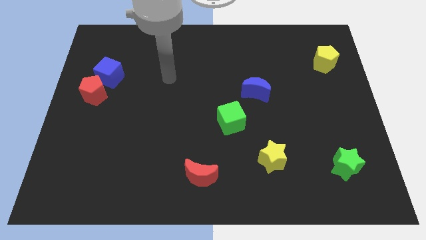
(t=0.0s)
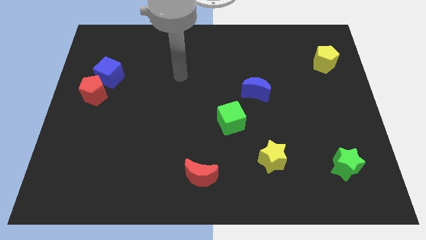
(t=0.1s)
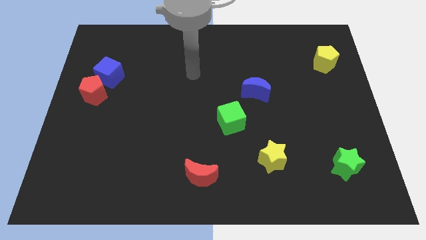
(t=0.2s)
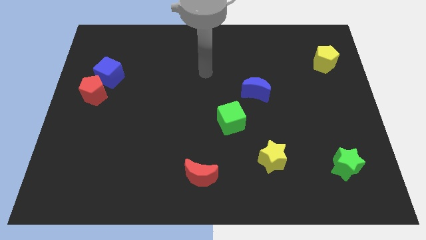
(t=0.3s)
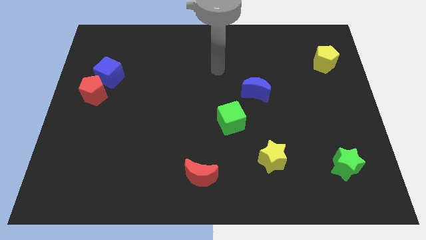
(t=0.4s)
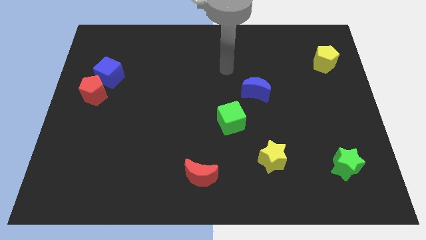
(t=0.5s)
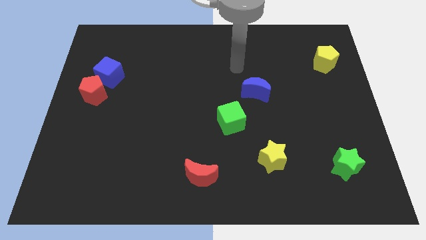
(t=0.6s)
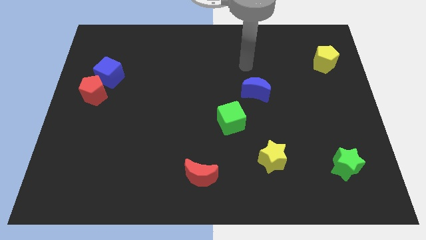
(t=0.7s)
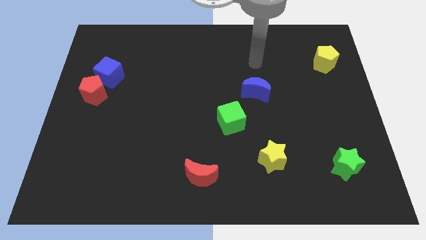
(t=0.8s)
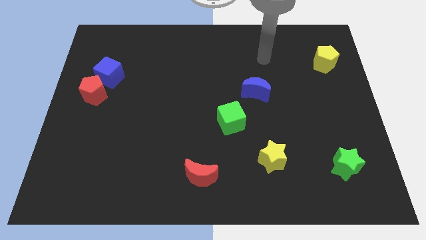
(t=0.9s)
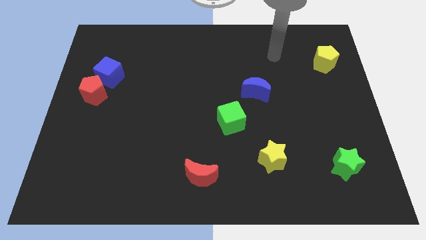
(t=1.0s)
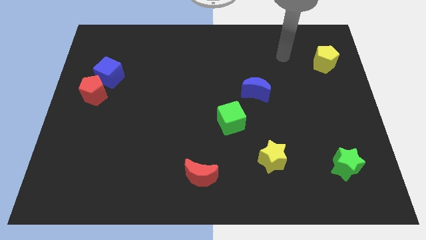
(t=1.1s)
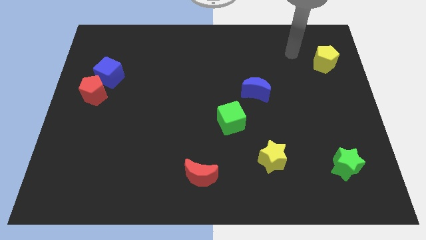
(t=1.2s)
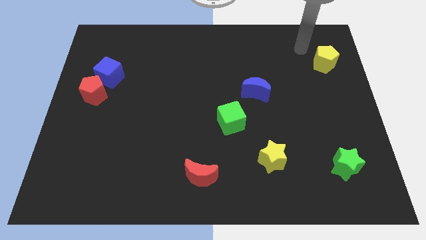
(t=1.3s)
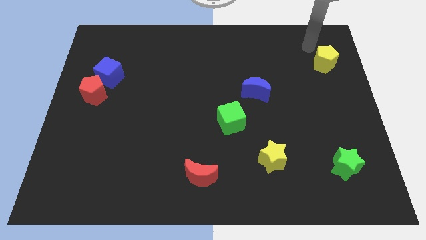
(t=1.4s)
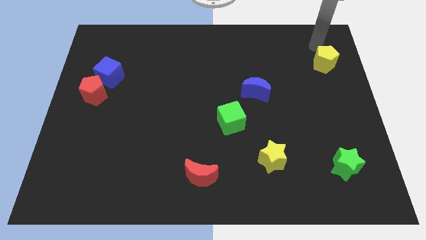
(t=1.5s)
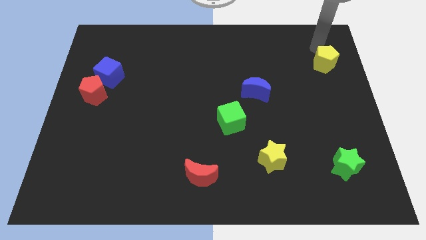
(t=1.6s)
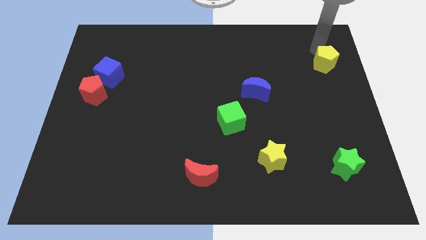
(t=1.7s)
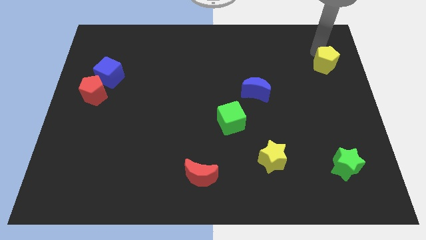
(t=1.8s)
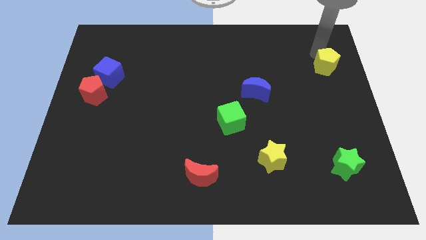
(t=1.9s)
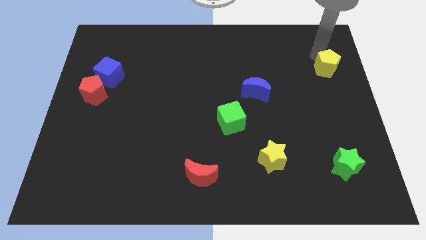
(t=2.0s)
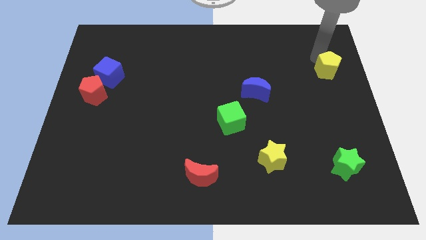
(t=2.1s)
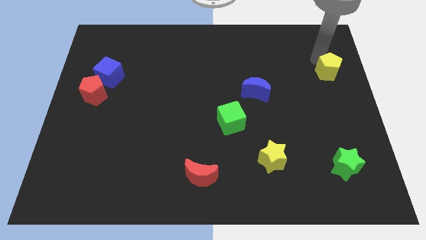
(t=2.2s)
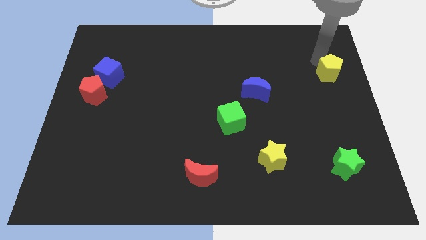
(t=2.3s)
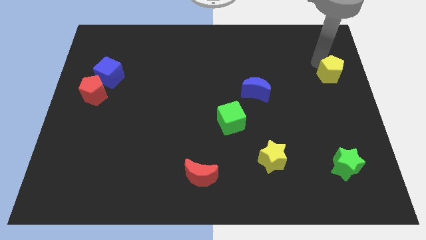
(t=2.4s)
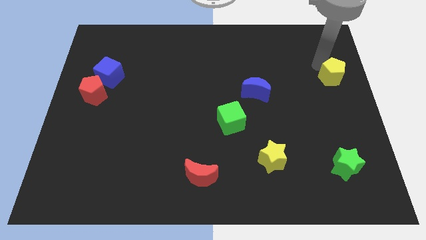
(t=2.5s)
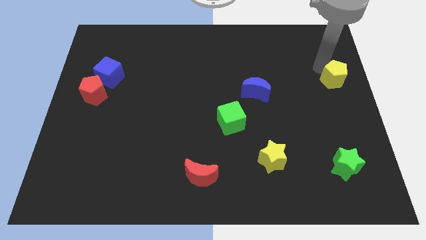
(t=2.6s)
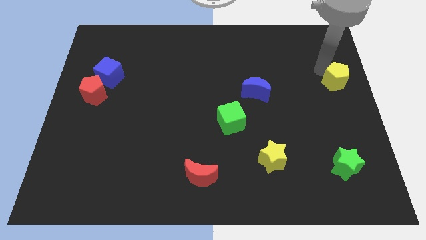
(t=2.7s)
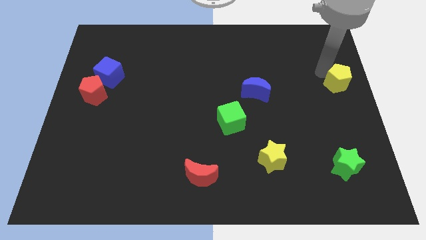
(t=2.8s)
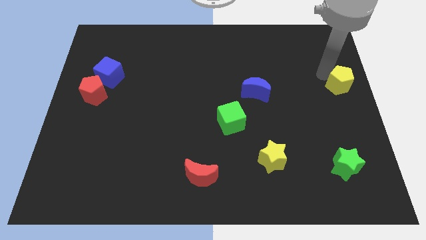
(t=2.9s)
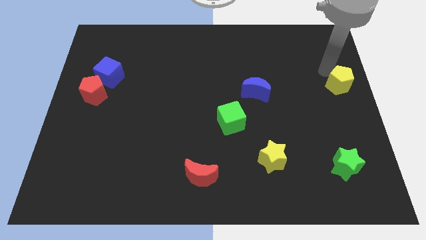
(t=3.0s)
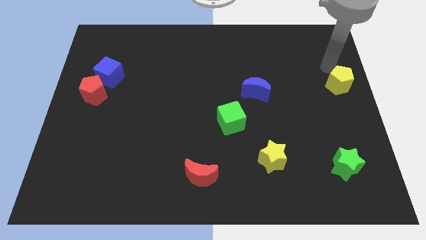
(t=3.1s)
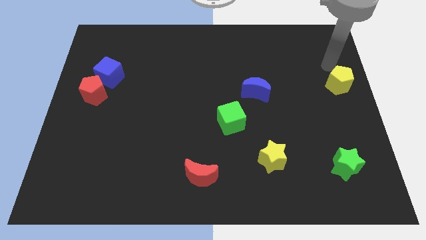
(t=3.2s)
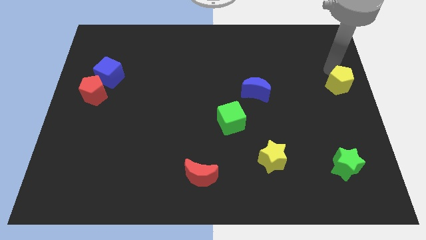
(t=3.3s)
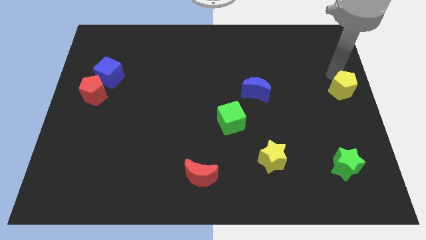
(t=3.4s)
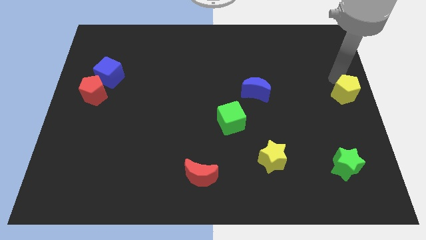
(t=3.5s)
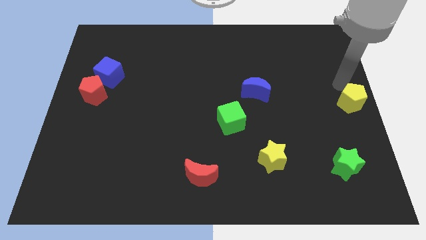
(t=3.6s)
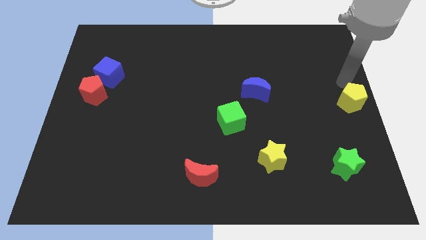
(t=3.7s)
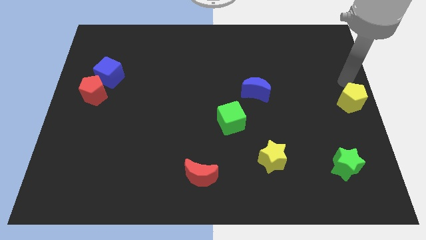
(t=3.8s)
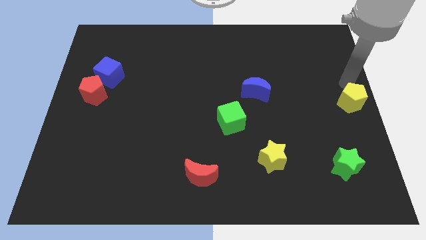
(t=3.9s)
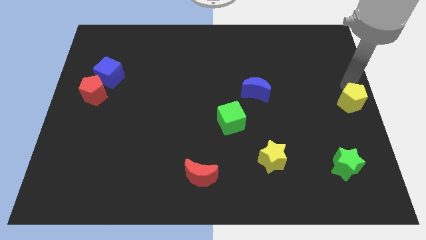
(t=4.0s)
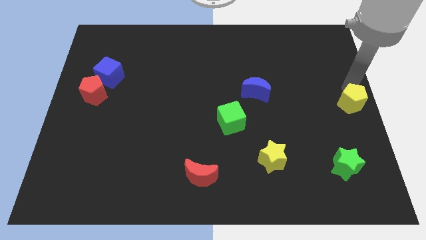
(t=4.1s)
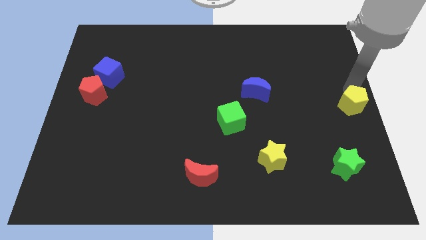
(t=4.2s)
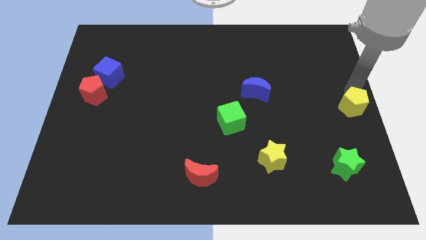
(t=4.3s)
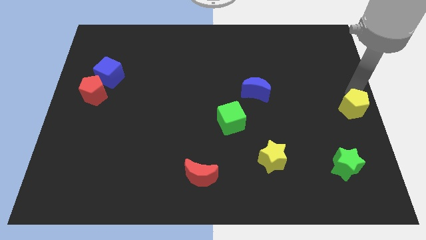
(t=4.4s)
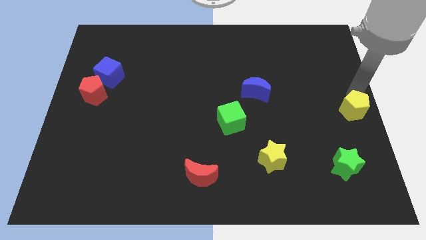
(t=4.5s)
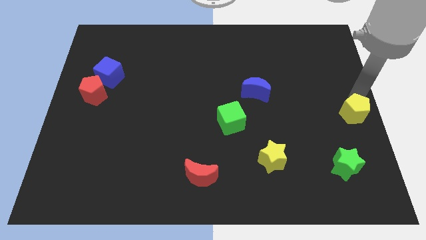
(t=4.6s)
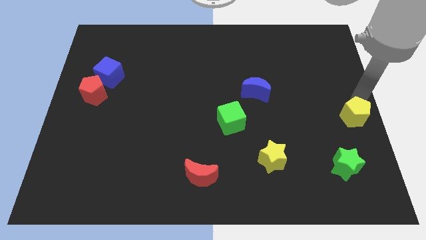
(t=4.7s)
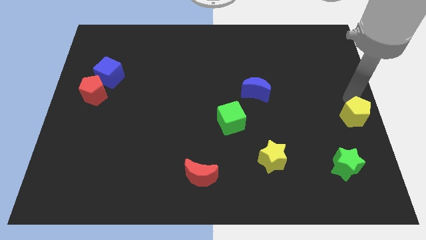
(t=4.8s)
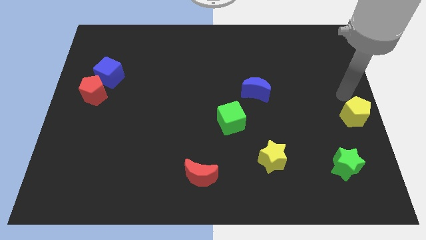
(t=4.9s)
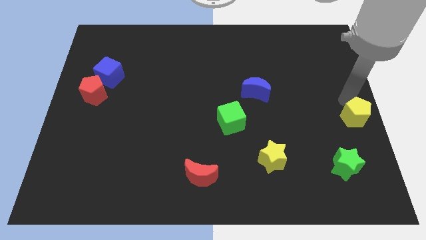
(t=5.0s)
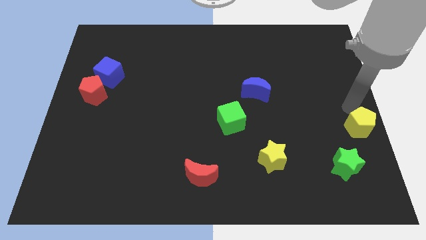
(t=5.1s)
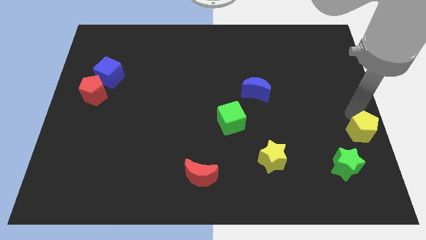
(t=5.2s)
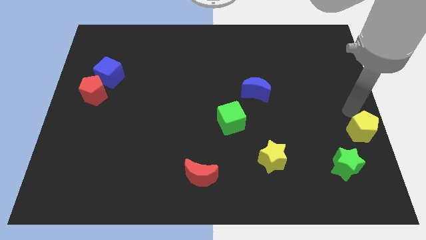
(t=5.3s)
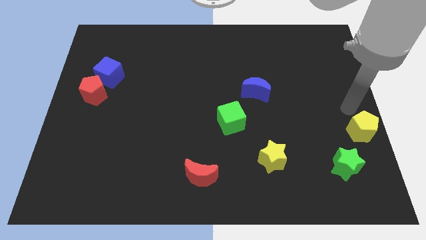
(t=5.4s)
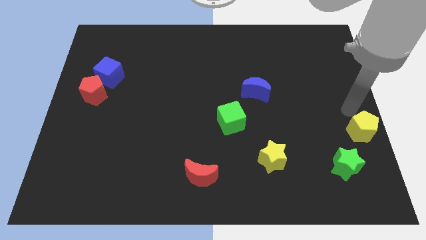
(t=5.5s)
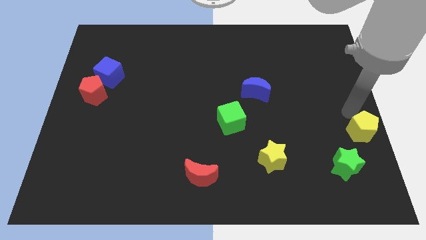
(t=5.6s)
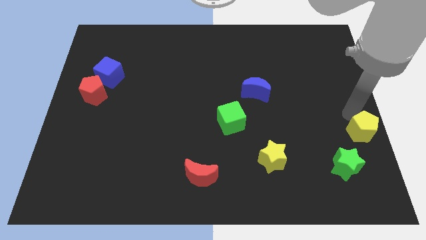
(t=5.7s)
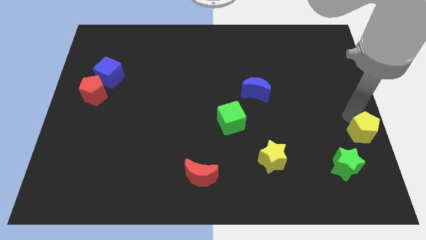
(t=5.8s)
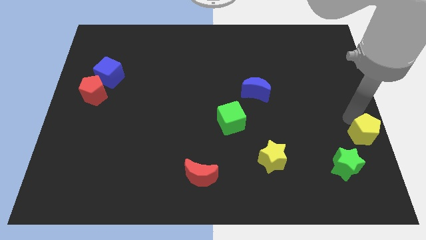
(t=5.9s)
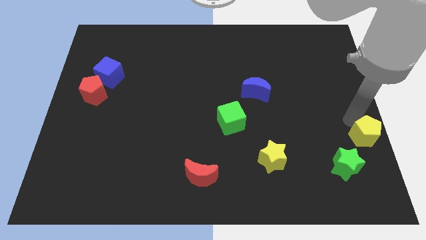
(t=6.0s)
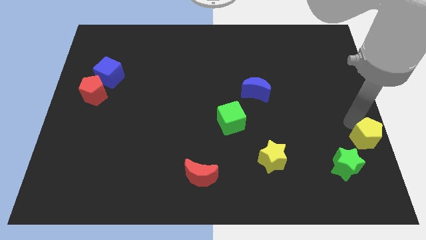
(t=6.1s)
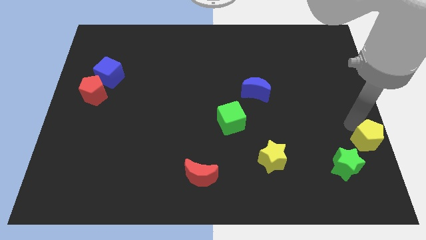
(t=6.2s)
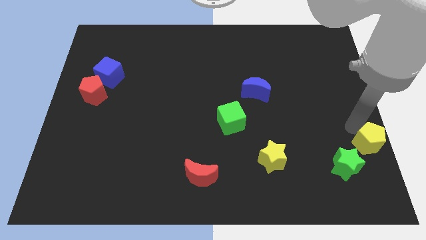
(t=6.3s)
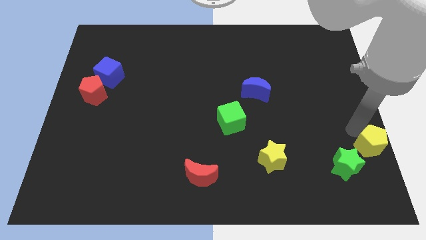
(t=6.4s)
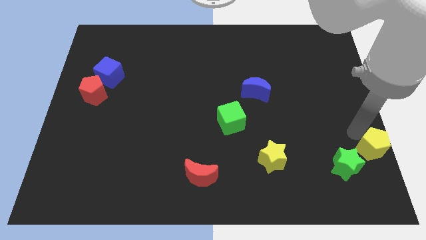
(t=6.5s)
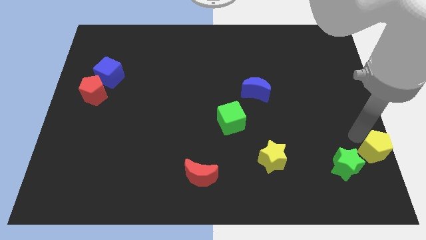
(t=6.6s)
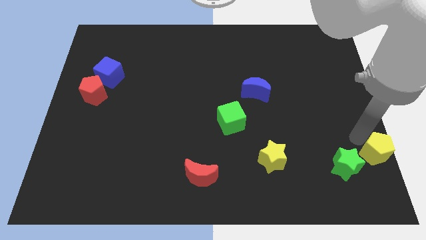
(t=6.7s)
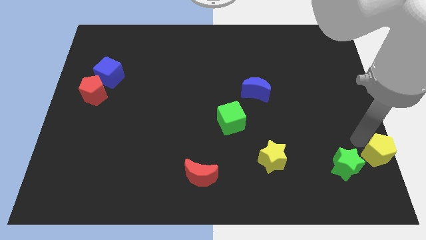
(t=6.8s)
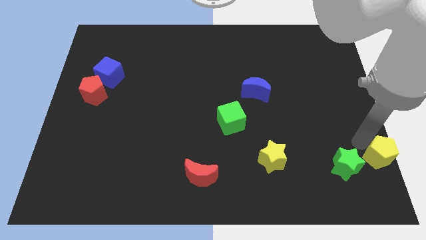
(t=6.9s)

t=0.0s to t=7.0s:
move the yellow pentagon to the bottom right corner

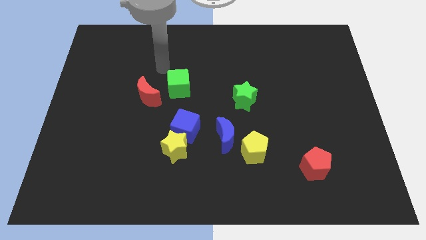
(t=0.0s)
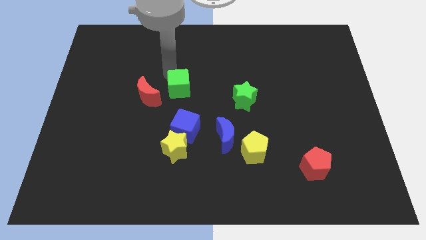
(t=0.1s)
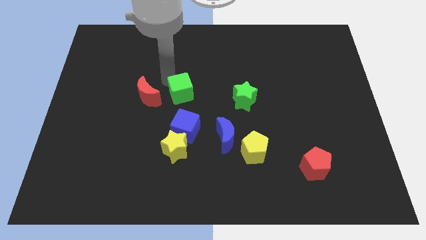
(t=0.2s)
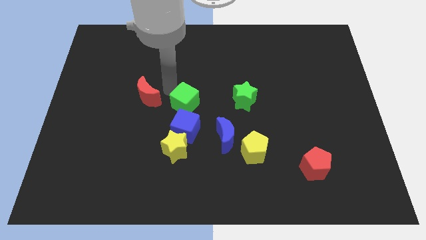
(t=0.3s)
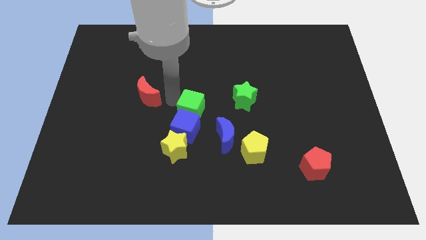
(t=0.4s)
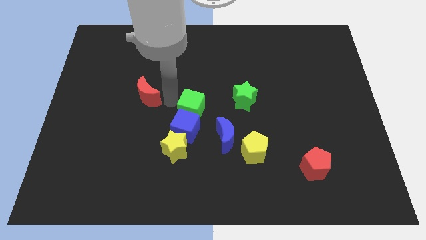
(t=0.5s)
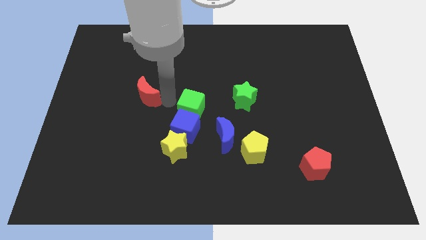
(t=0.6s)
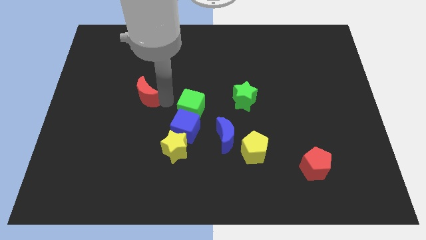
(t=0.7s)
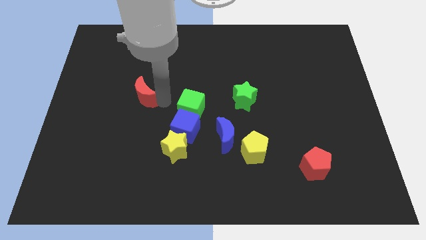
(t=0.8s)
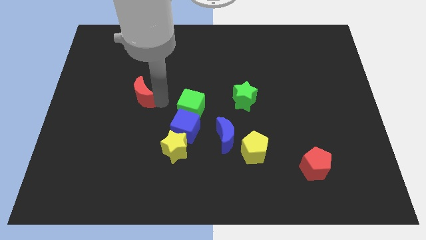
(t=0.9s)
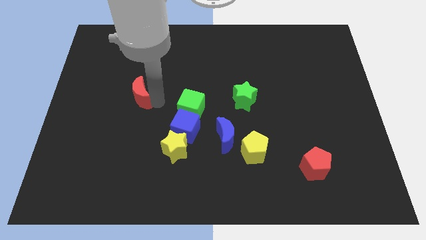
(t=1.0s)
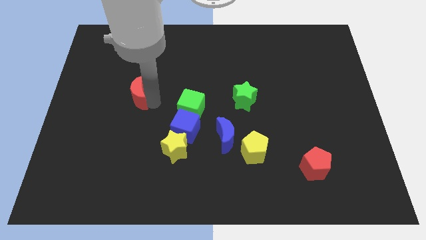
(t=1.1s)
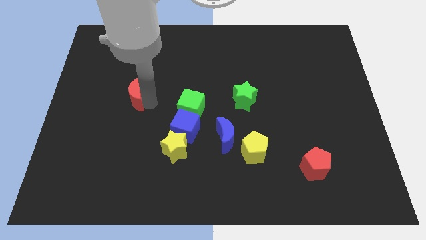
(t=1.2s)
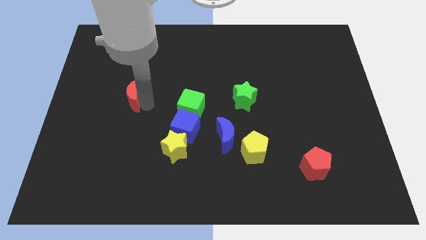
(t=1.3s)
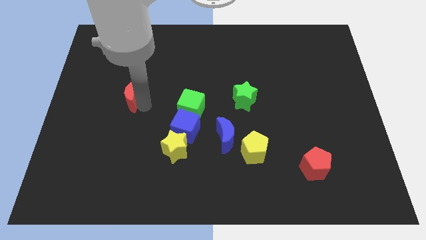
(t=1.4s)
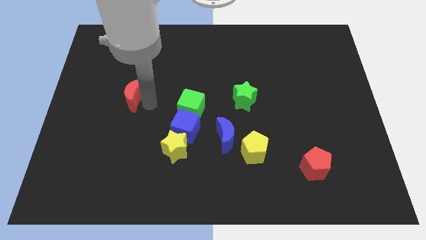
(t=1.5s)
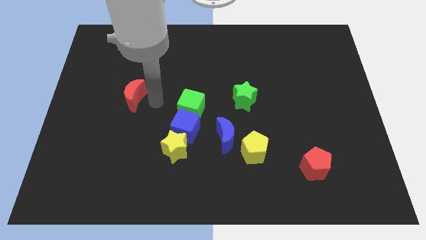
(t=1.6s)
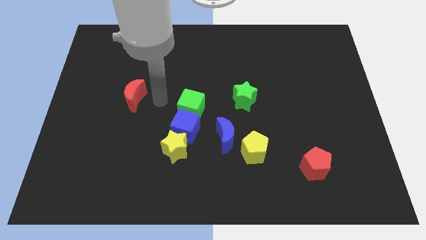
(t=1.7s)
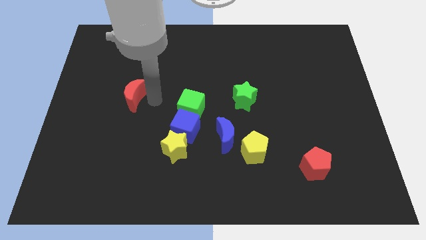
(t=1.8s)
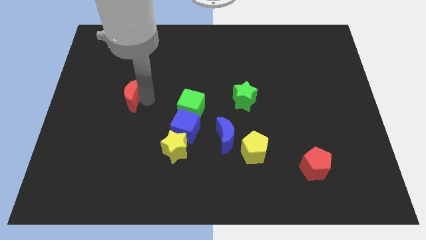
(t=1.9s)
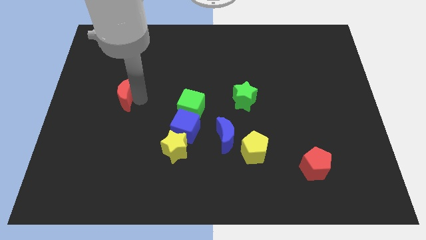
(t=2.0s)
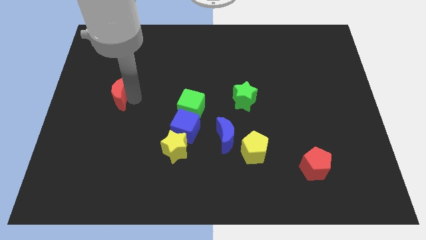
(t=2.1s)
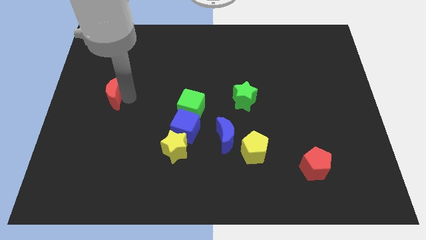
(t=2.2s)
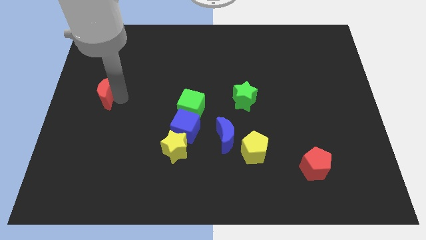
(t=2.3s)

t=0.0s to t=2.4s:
push the red moon to the left side
